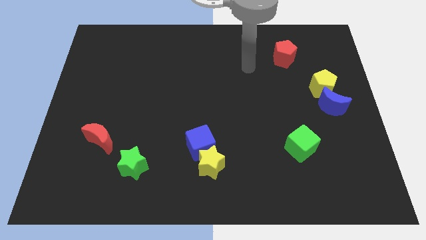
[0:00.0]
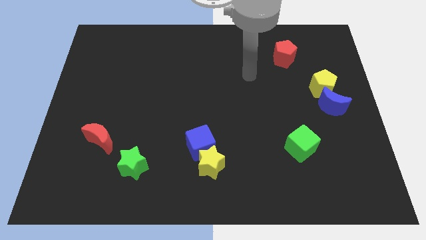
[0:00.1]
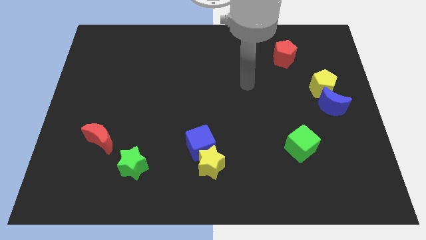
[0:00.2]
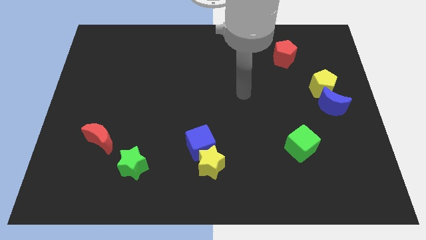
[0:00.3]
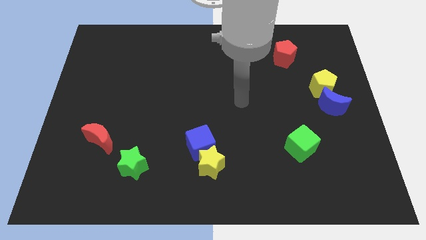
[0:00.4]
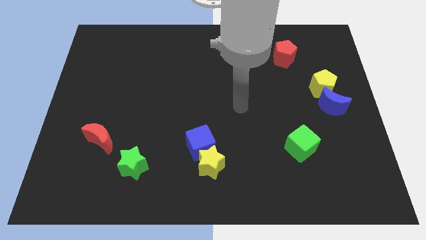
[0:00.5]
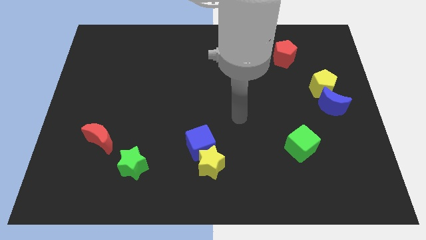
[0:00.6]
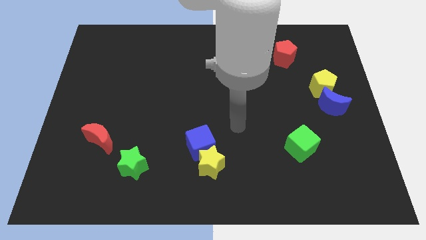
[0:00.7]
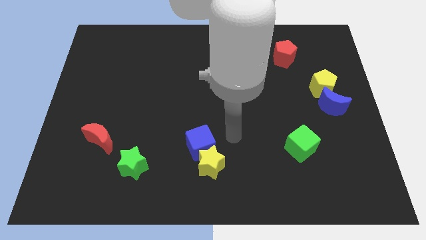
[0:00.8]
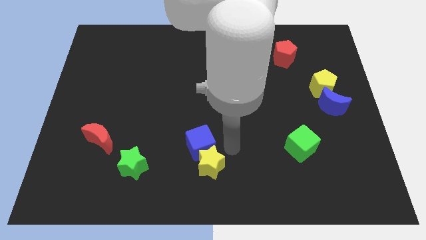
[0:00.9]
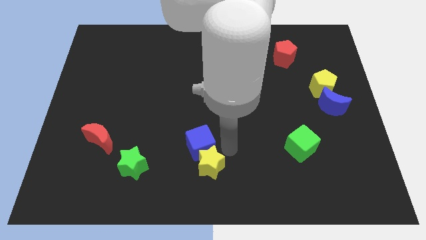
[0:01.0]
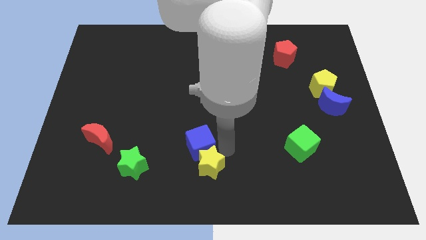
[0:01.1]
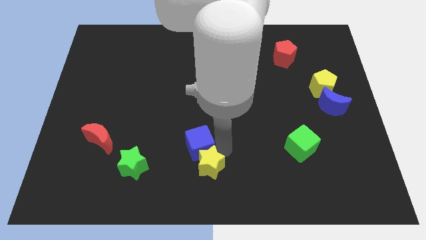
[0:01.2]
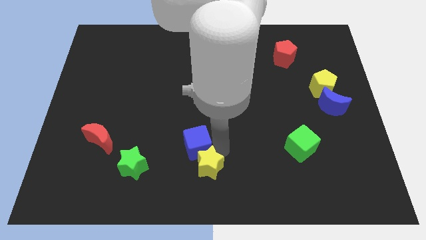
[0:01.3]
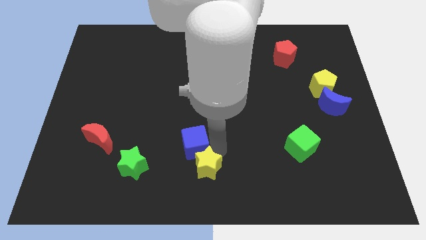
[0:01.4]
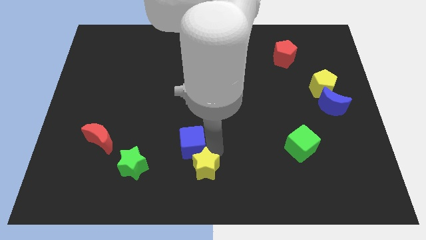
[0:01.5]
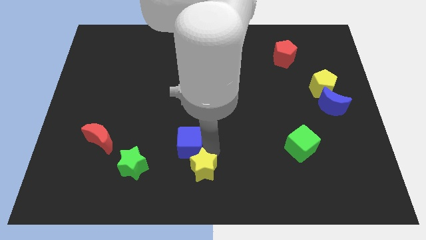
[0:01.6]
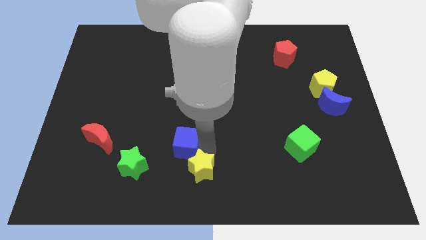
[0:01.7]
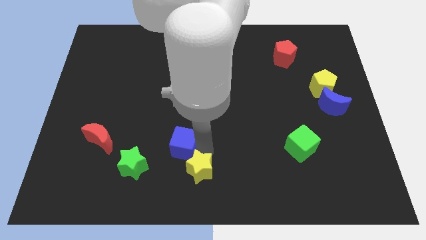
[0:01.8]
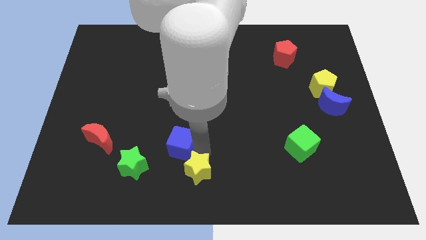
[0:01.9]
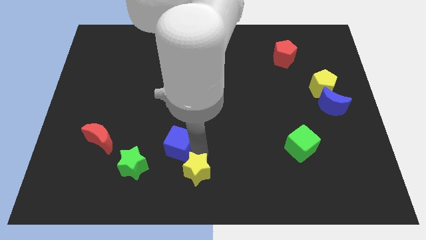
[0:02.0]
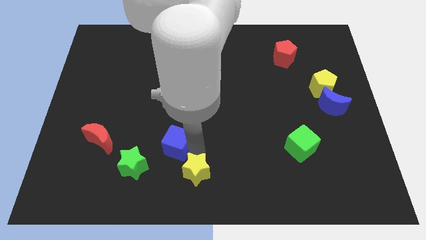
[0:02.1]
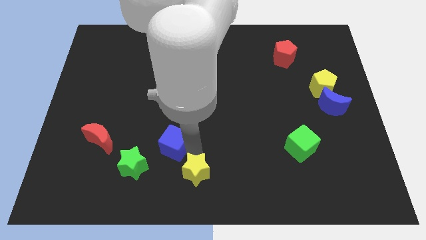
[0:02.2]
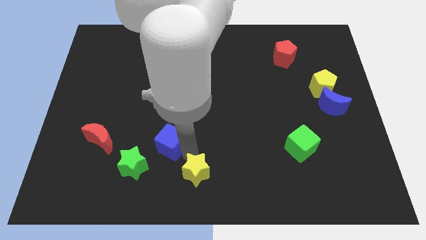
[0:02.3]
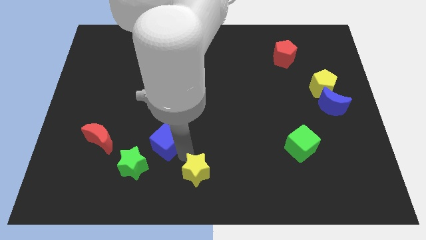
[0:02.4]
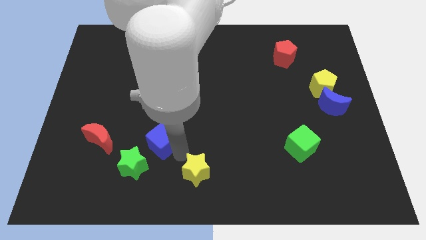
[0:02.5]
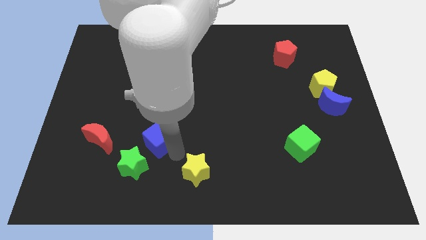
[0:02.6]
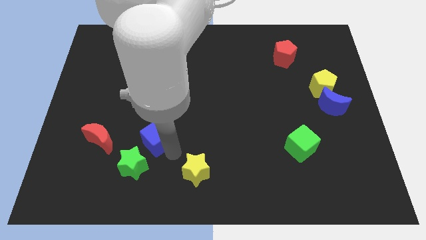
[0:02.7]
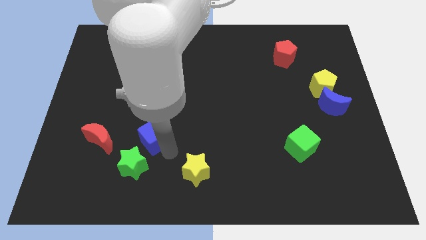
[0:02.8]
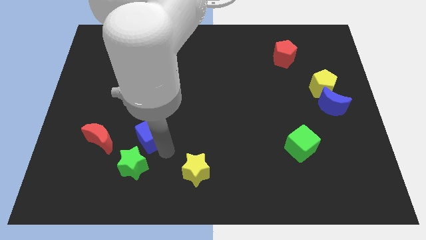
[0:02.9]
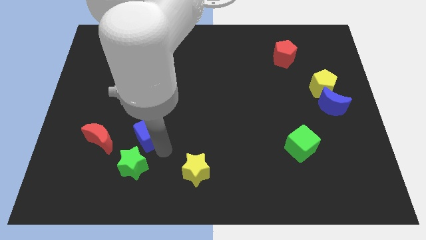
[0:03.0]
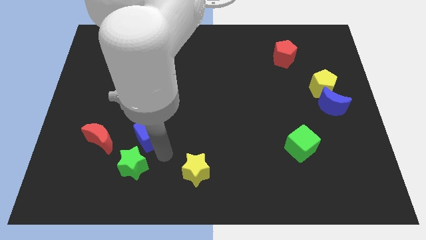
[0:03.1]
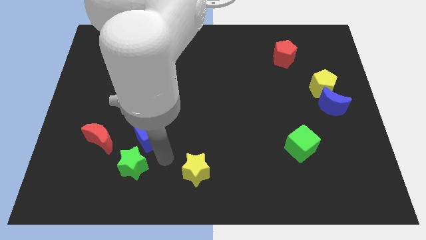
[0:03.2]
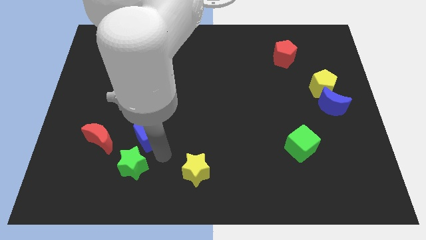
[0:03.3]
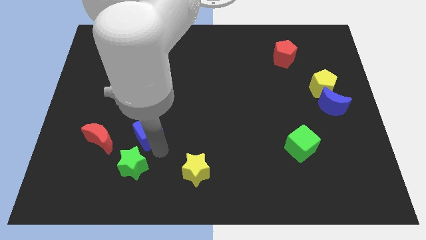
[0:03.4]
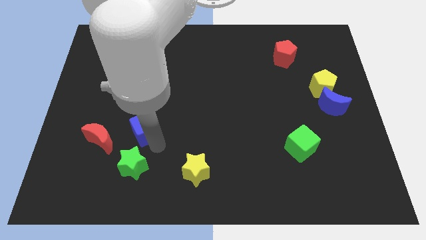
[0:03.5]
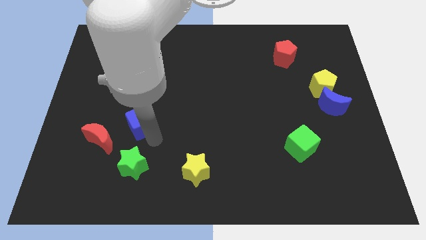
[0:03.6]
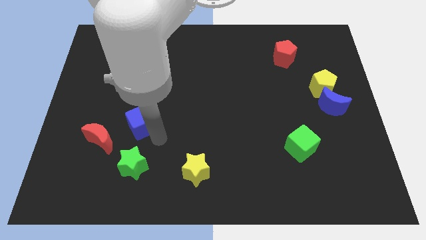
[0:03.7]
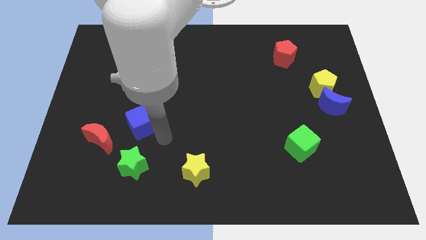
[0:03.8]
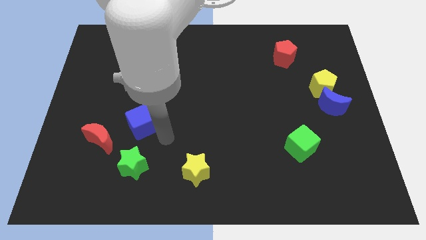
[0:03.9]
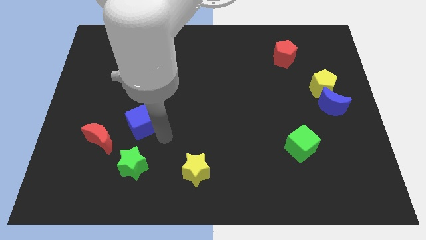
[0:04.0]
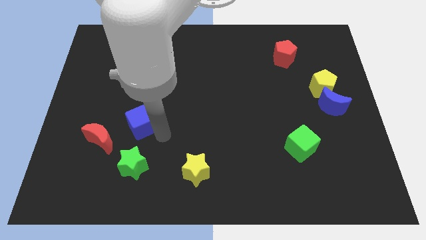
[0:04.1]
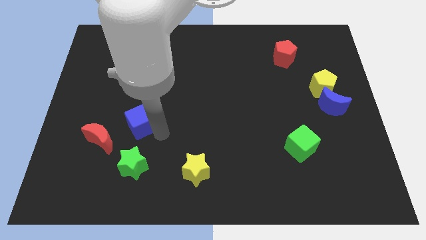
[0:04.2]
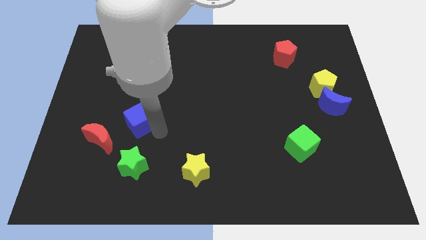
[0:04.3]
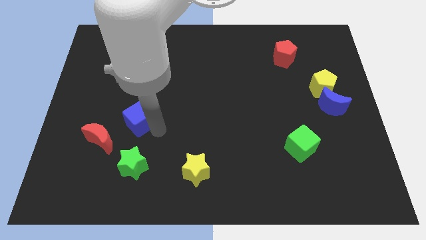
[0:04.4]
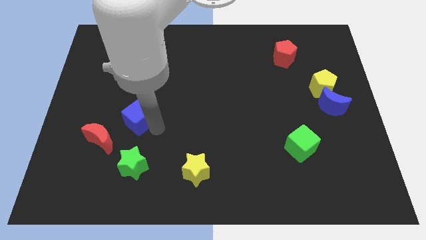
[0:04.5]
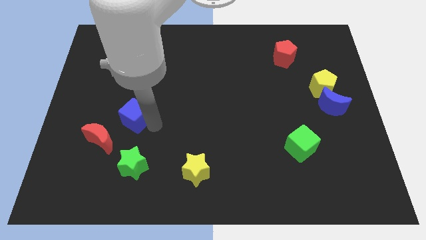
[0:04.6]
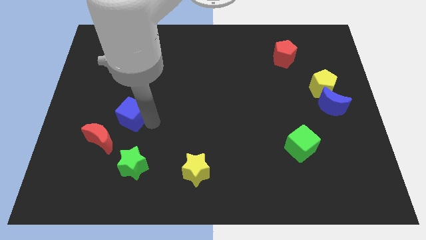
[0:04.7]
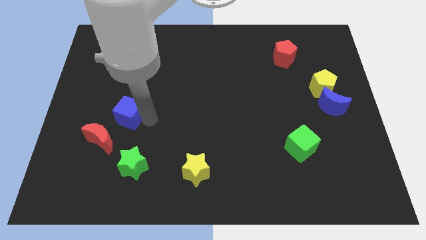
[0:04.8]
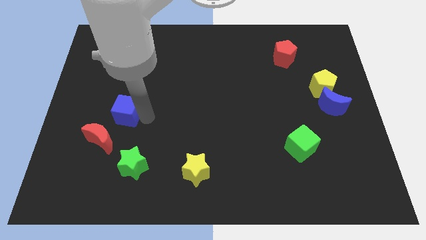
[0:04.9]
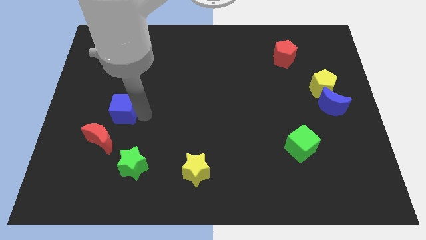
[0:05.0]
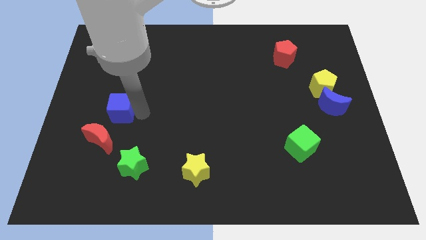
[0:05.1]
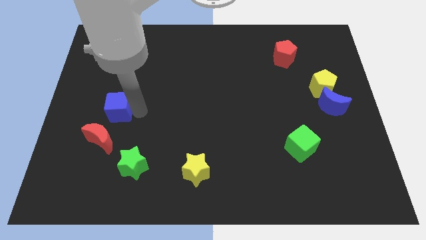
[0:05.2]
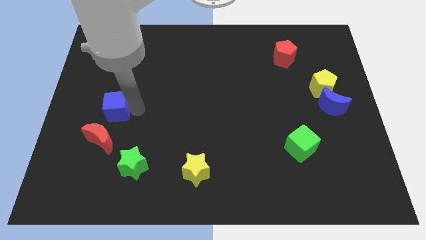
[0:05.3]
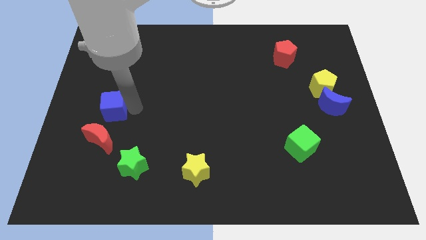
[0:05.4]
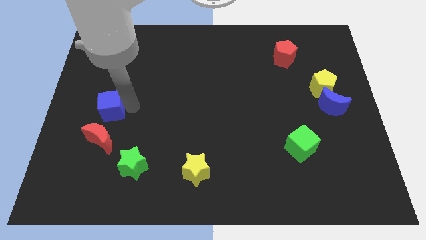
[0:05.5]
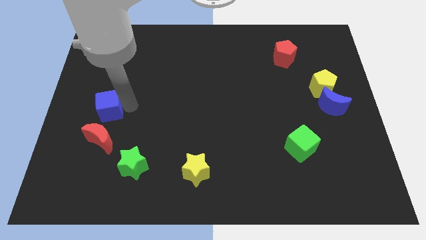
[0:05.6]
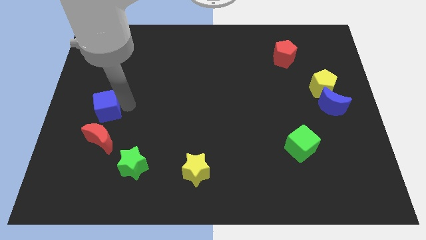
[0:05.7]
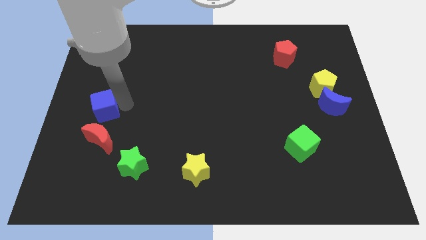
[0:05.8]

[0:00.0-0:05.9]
slide the blue cube to the left side

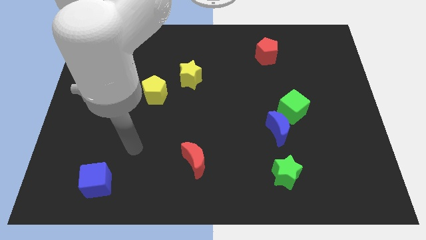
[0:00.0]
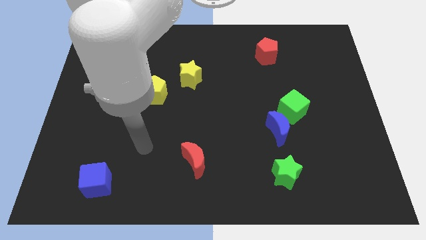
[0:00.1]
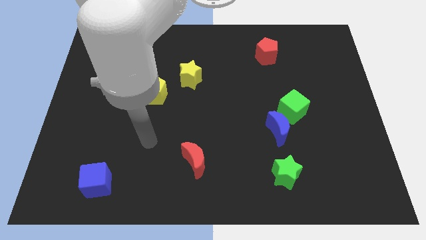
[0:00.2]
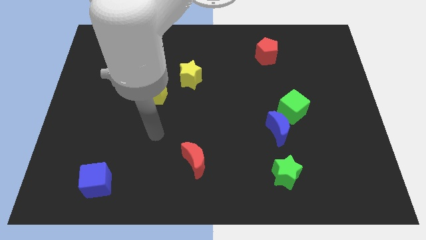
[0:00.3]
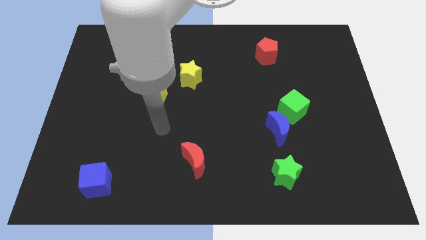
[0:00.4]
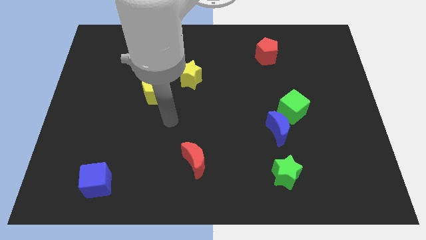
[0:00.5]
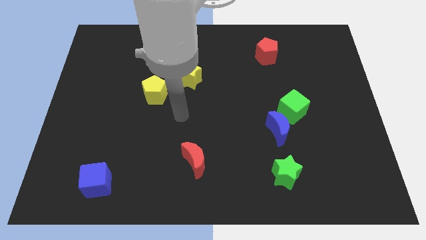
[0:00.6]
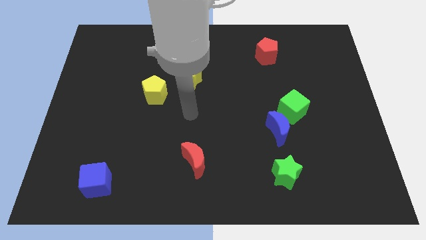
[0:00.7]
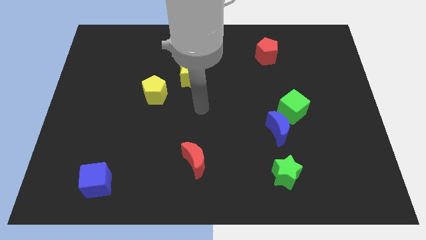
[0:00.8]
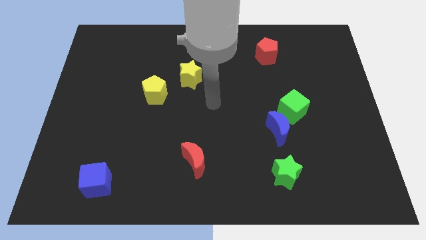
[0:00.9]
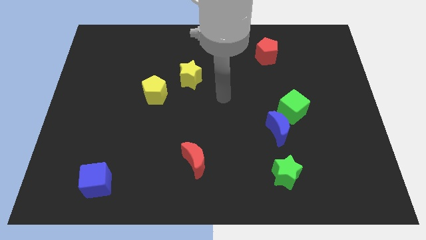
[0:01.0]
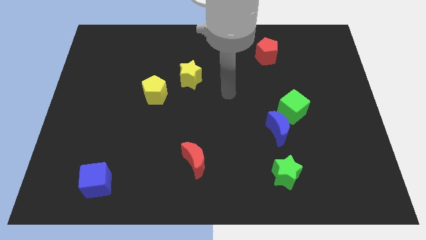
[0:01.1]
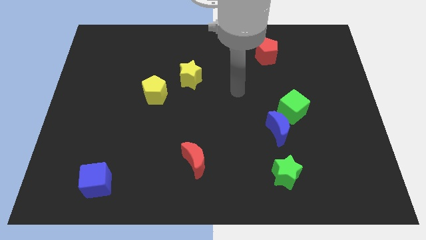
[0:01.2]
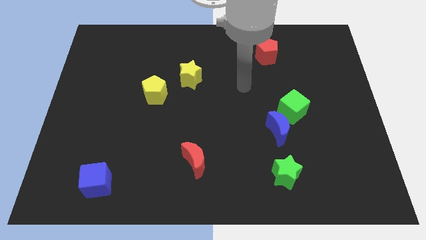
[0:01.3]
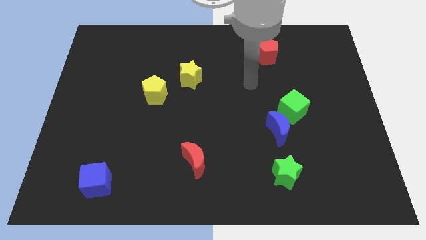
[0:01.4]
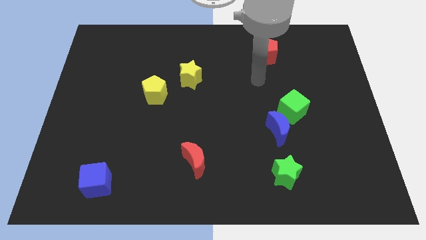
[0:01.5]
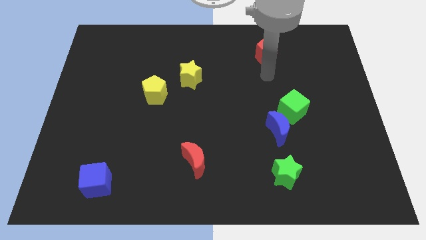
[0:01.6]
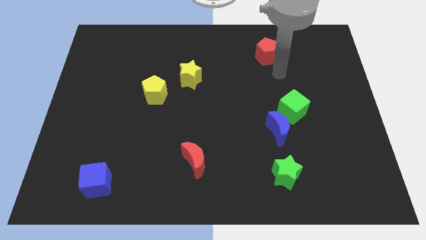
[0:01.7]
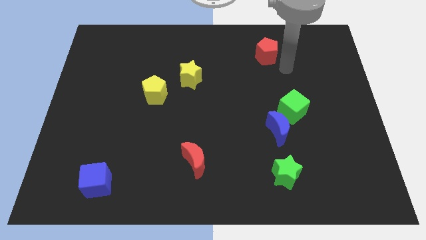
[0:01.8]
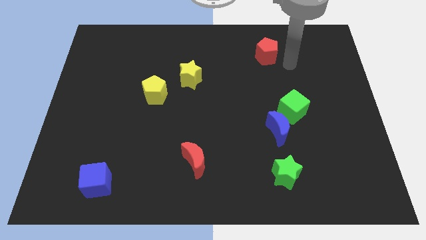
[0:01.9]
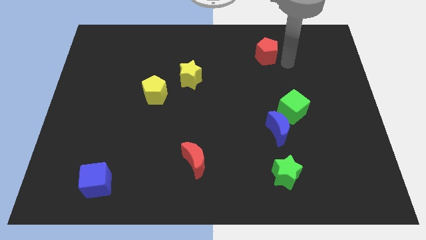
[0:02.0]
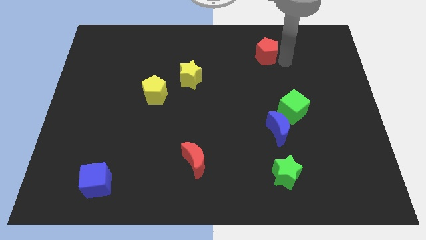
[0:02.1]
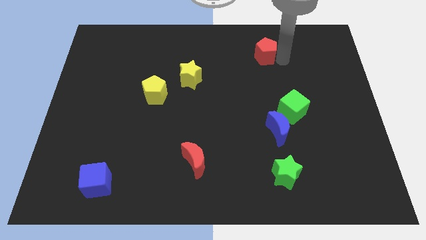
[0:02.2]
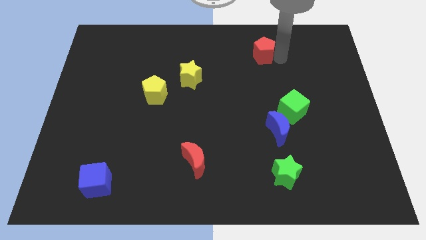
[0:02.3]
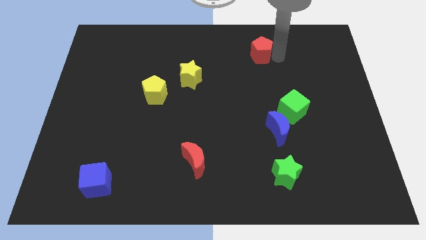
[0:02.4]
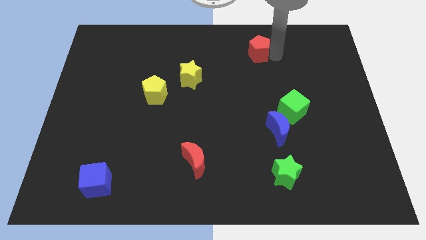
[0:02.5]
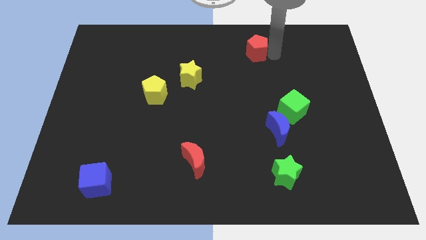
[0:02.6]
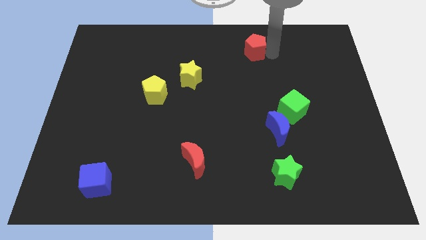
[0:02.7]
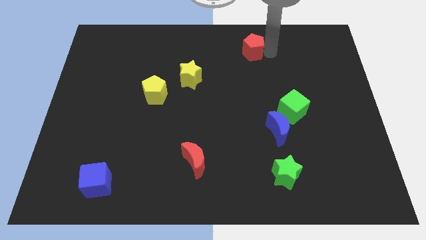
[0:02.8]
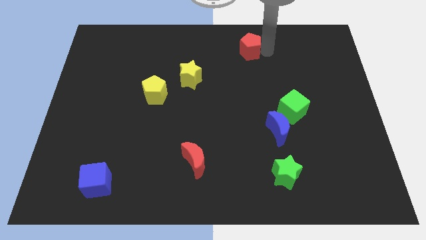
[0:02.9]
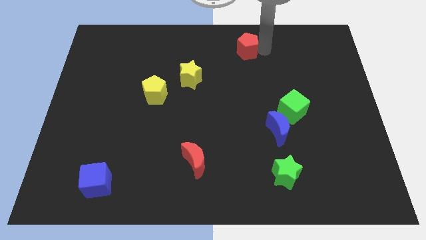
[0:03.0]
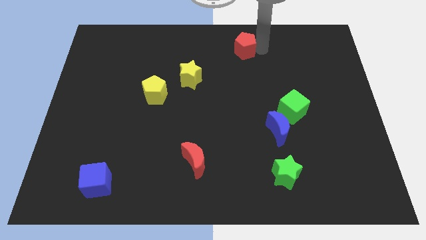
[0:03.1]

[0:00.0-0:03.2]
slide the red pentagon to the towards your base
